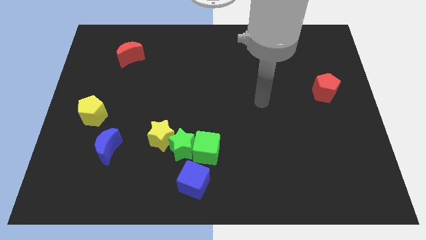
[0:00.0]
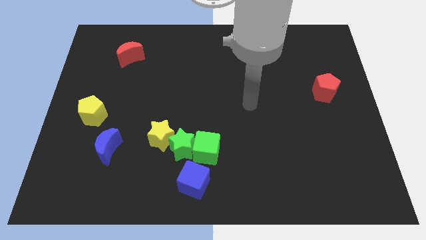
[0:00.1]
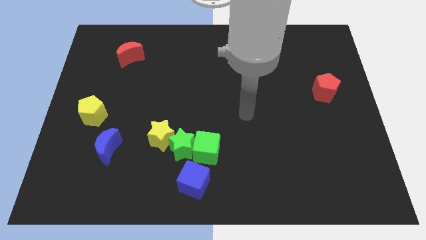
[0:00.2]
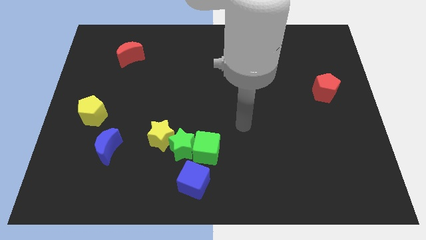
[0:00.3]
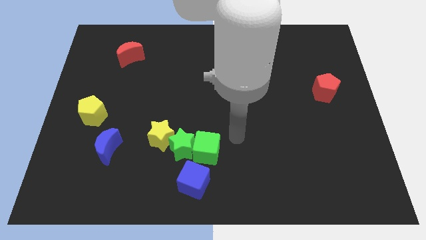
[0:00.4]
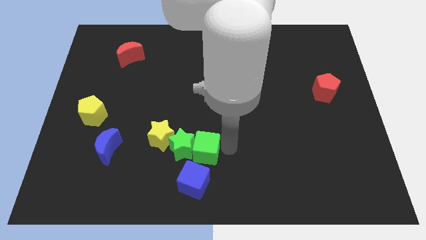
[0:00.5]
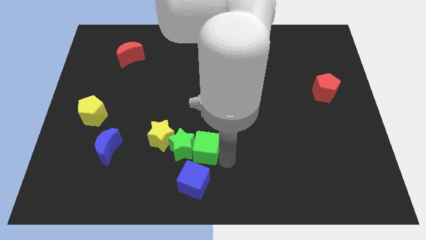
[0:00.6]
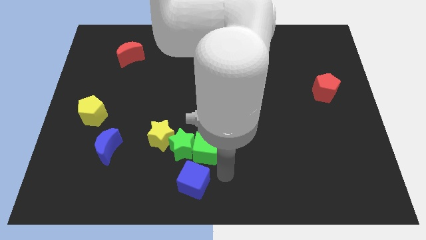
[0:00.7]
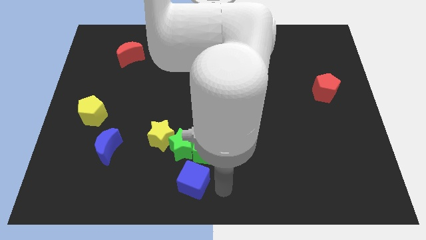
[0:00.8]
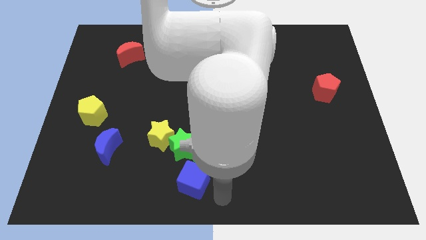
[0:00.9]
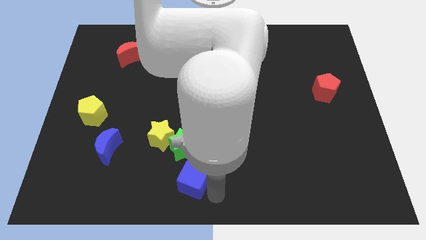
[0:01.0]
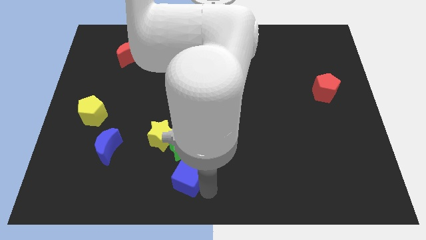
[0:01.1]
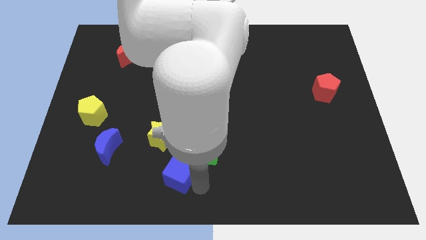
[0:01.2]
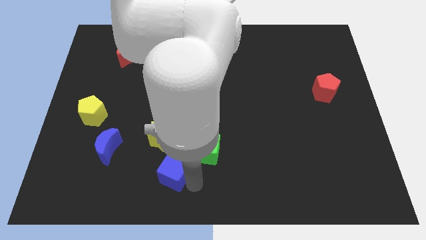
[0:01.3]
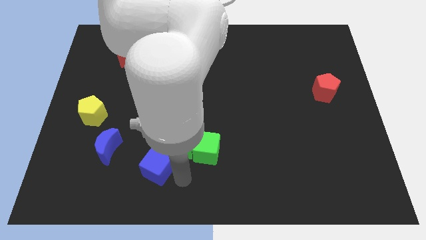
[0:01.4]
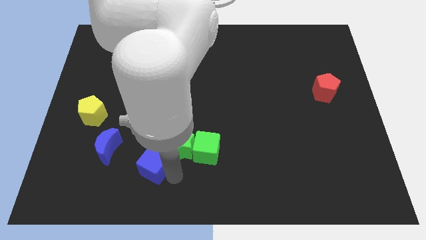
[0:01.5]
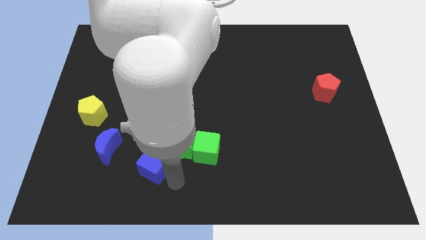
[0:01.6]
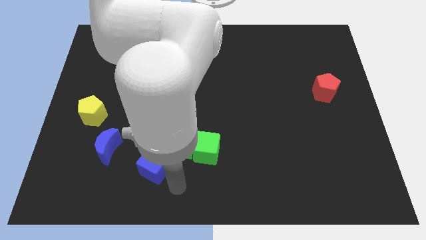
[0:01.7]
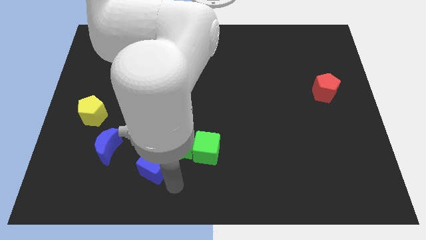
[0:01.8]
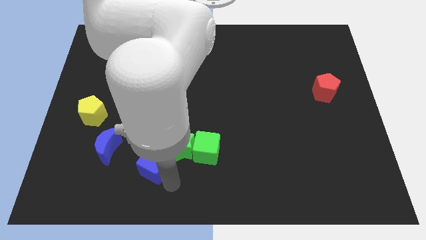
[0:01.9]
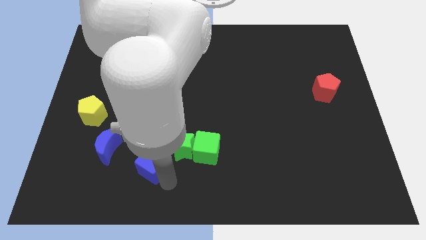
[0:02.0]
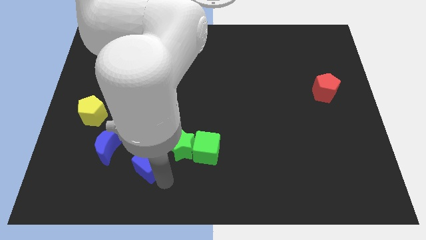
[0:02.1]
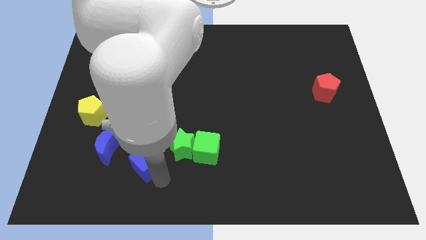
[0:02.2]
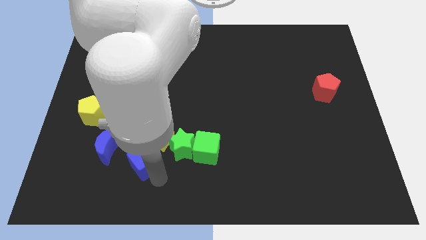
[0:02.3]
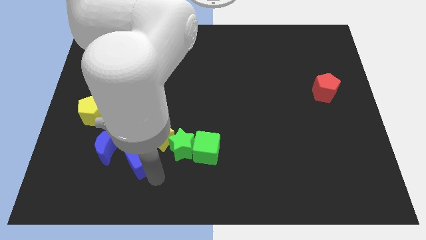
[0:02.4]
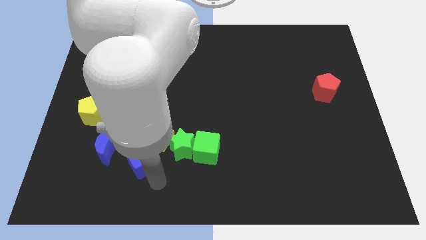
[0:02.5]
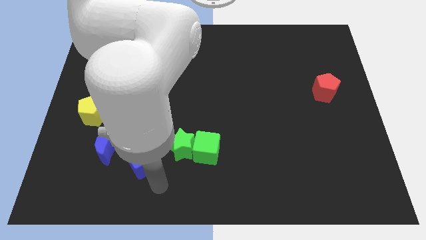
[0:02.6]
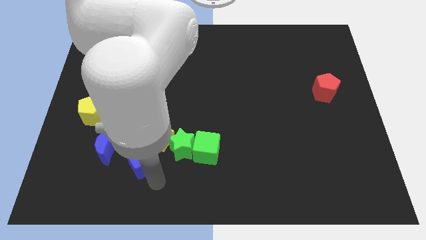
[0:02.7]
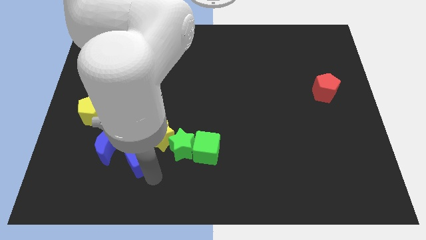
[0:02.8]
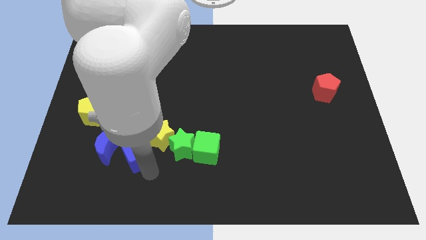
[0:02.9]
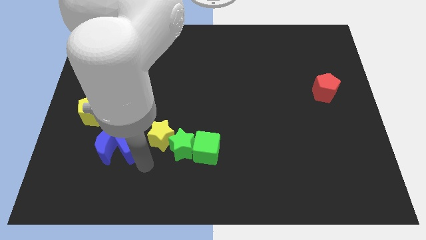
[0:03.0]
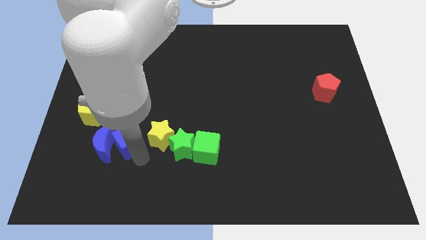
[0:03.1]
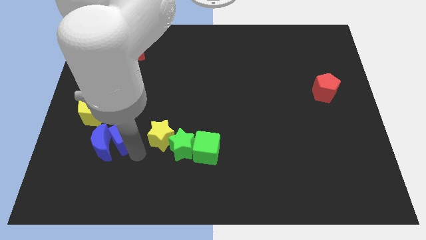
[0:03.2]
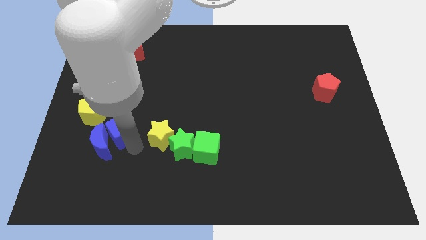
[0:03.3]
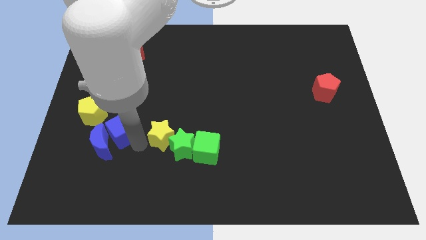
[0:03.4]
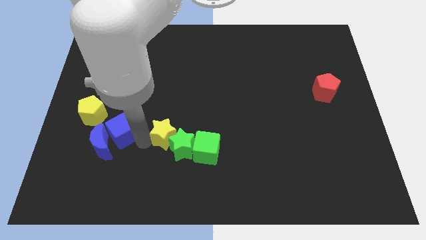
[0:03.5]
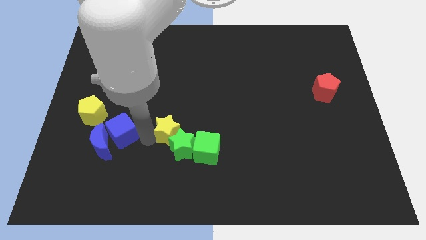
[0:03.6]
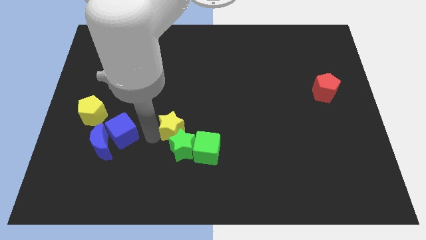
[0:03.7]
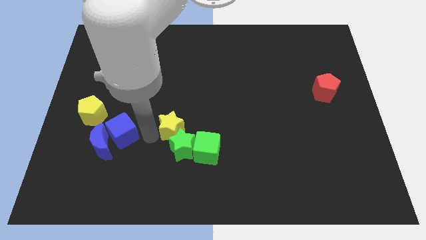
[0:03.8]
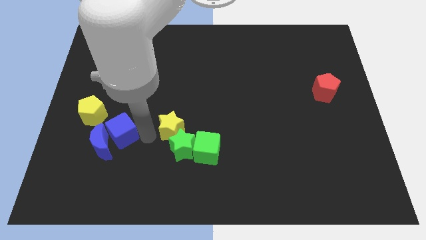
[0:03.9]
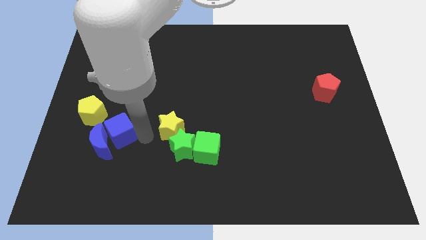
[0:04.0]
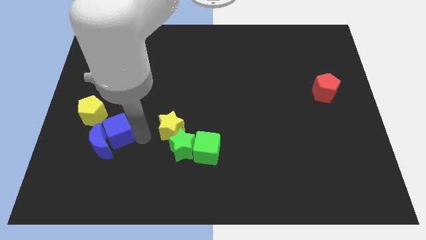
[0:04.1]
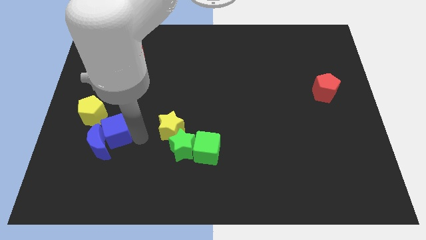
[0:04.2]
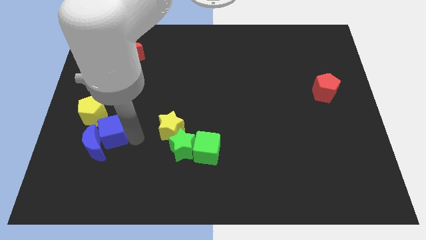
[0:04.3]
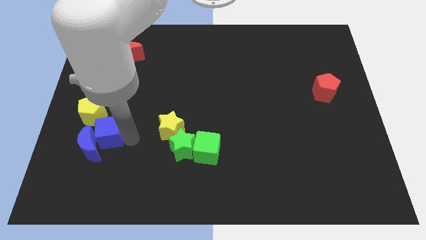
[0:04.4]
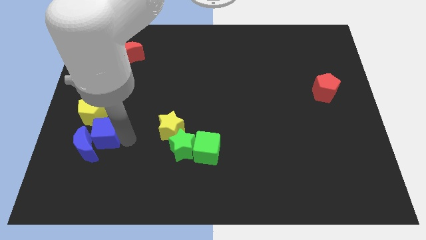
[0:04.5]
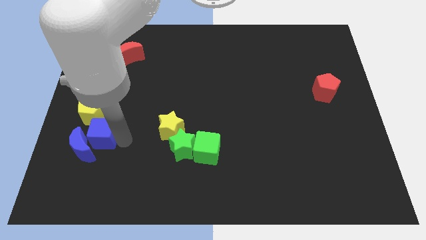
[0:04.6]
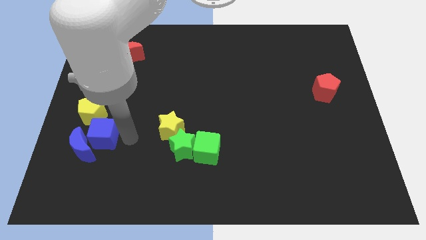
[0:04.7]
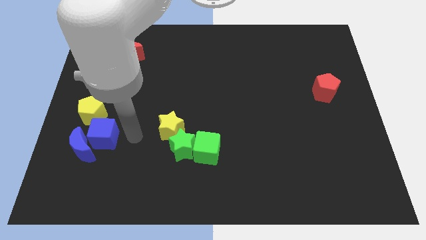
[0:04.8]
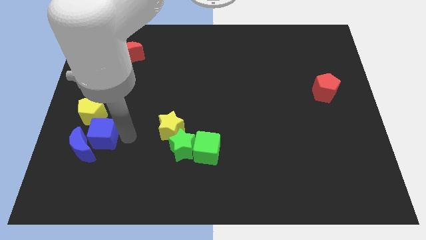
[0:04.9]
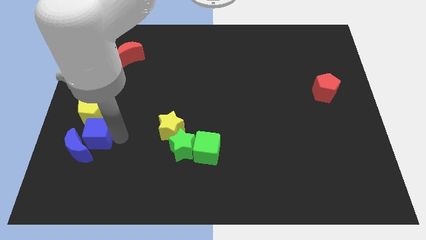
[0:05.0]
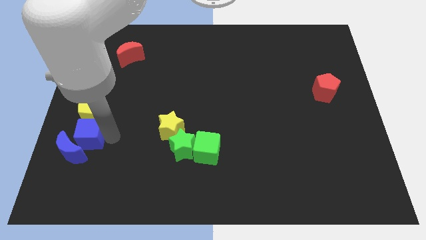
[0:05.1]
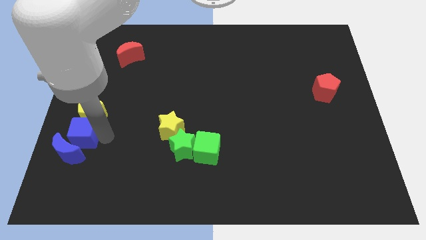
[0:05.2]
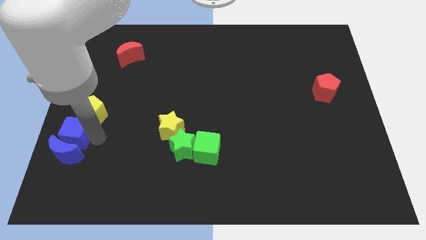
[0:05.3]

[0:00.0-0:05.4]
move the blue cube to the center left

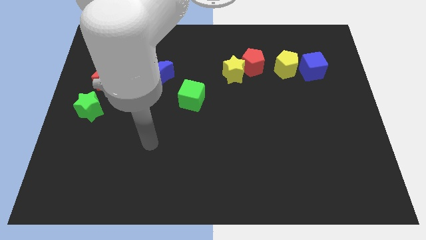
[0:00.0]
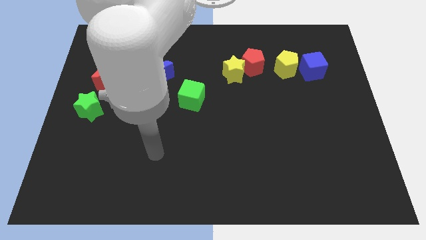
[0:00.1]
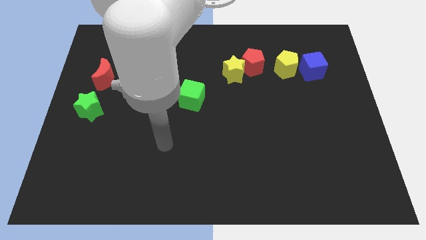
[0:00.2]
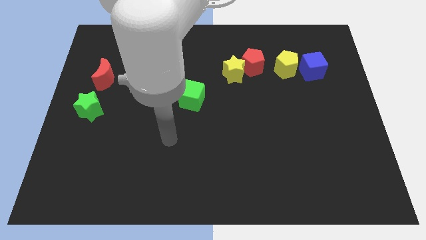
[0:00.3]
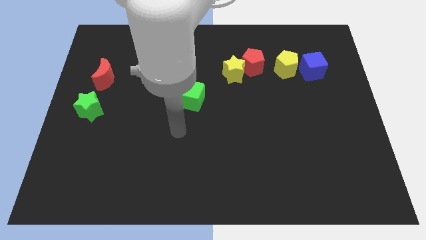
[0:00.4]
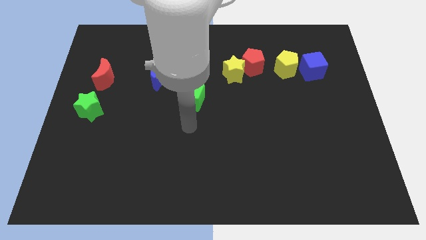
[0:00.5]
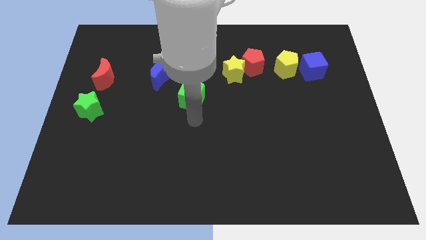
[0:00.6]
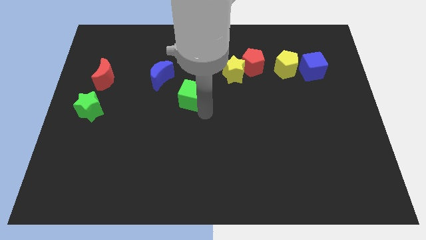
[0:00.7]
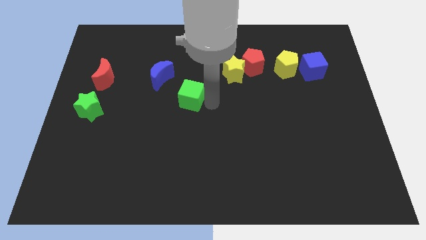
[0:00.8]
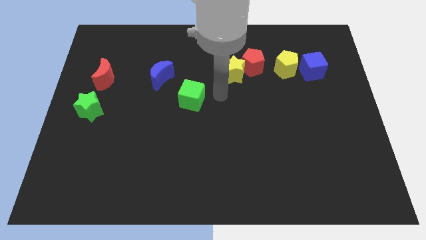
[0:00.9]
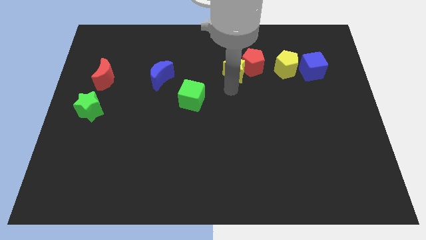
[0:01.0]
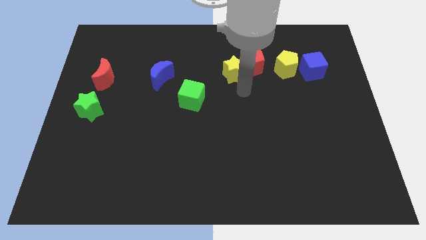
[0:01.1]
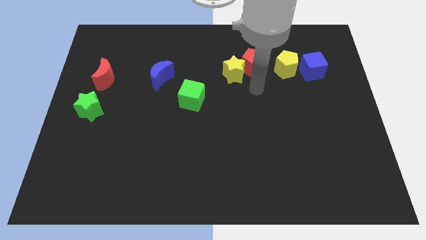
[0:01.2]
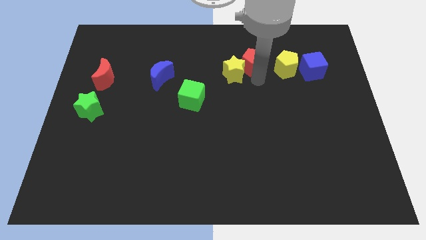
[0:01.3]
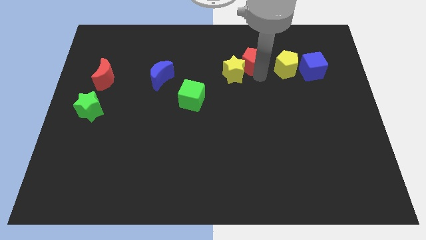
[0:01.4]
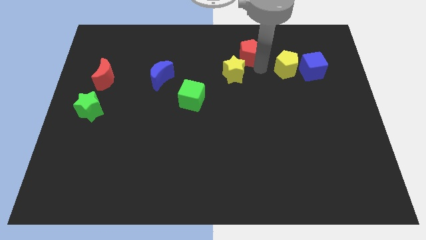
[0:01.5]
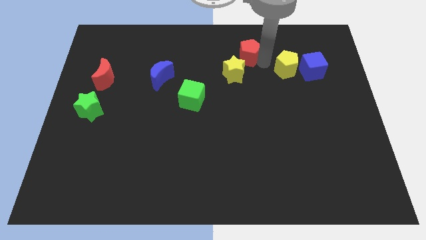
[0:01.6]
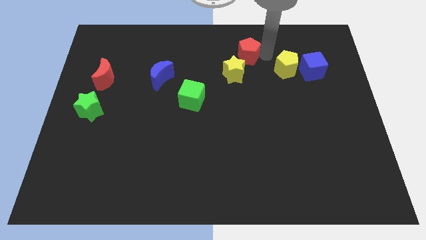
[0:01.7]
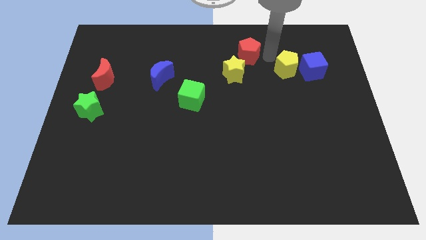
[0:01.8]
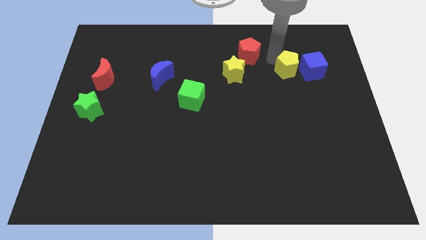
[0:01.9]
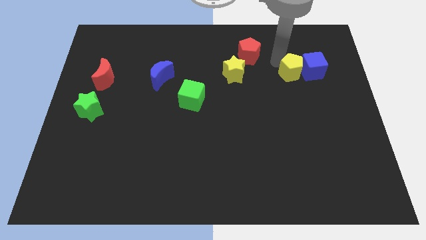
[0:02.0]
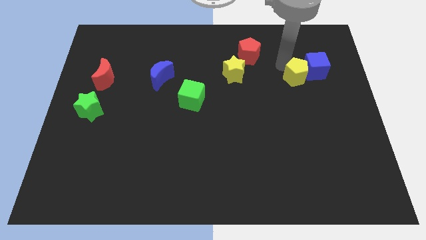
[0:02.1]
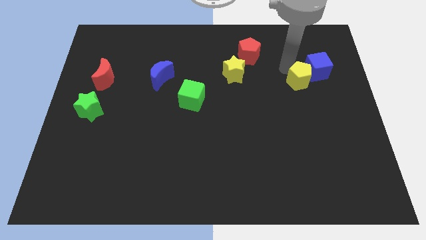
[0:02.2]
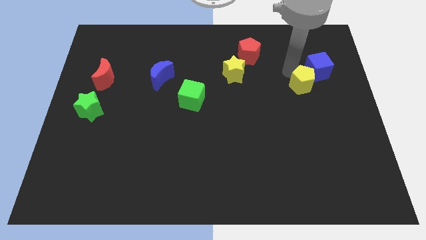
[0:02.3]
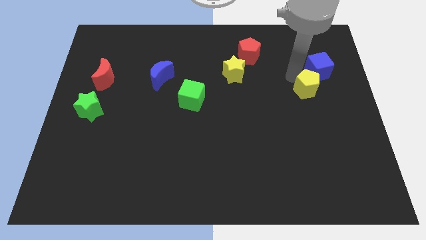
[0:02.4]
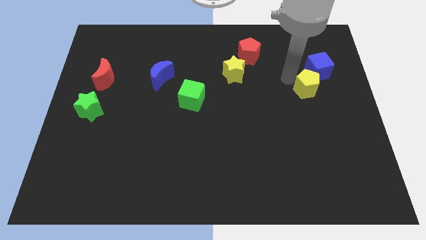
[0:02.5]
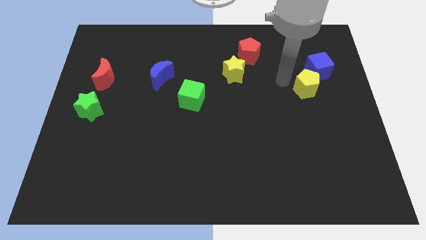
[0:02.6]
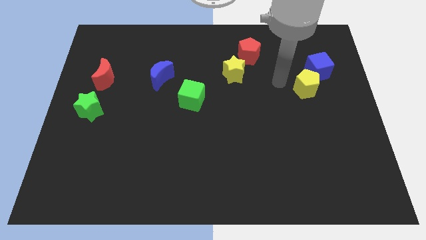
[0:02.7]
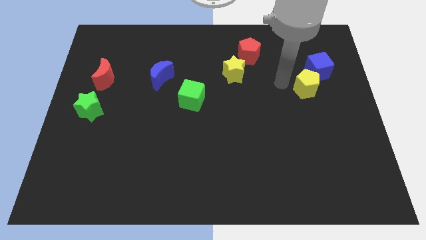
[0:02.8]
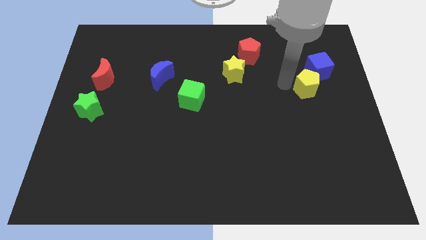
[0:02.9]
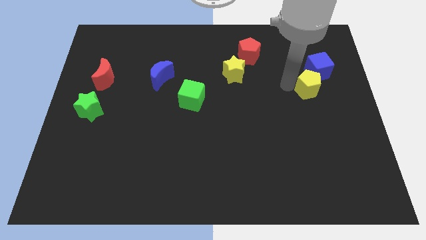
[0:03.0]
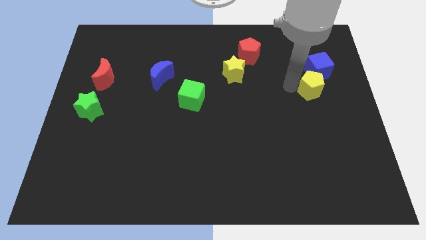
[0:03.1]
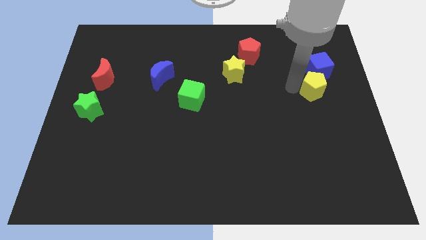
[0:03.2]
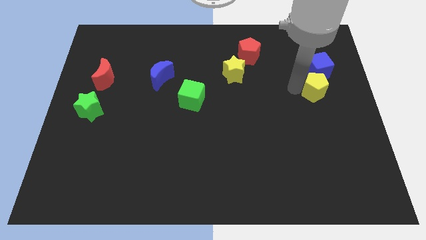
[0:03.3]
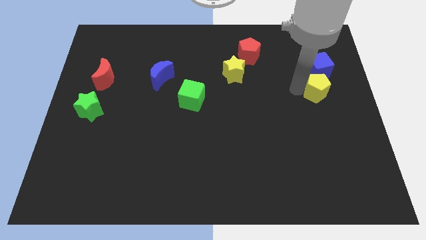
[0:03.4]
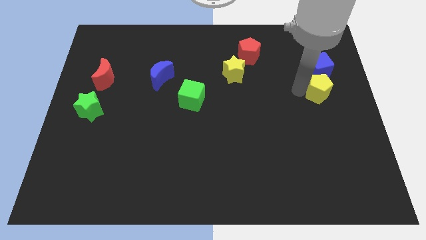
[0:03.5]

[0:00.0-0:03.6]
put the yellow pentagon to the right side of the board
